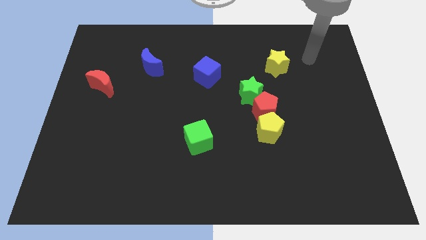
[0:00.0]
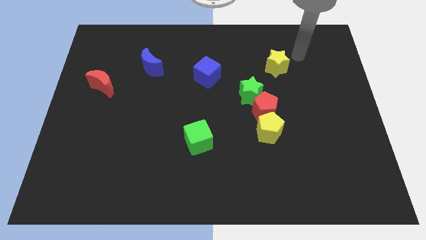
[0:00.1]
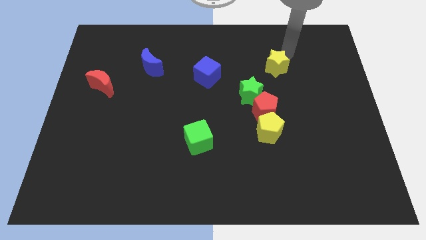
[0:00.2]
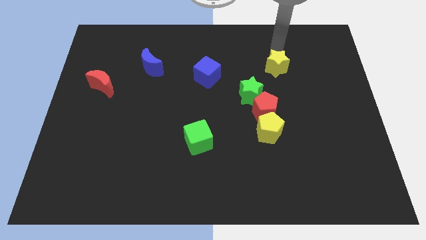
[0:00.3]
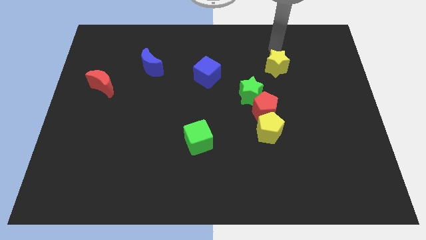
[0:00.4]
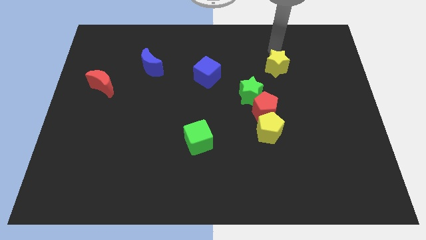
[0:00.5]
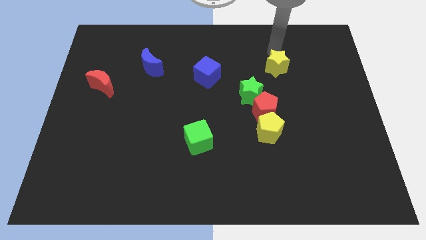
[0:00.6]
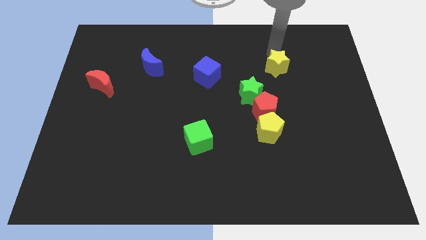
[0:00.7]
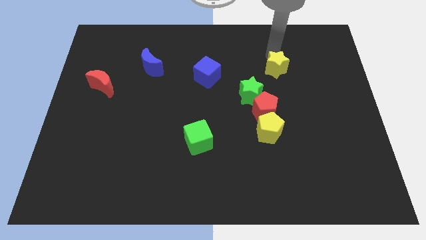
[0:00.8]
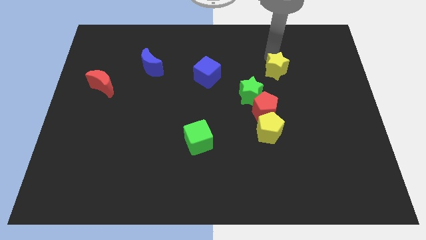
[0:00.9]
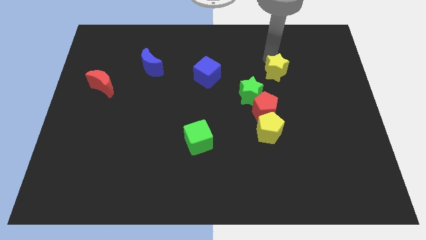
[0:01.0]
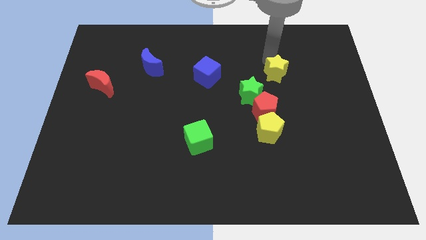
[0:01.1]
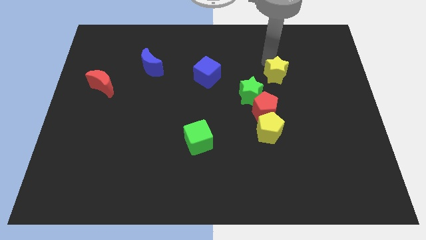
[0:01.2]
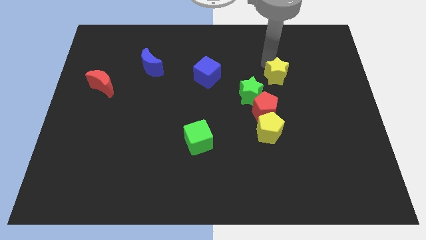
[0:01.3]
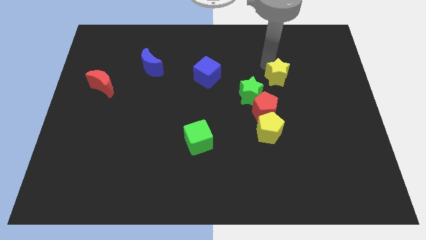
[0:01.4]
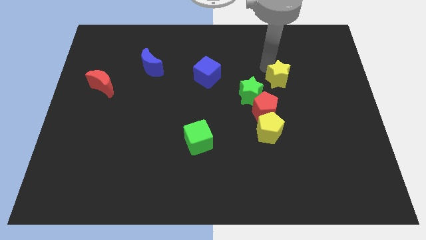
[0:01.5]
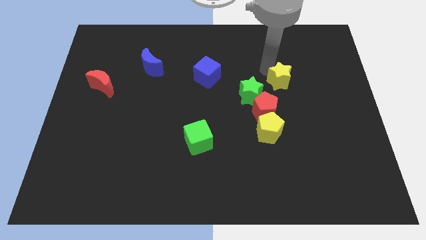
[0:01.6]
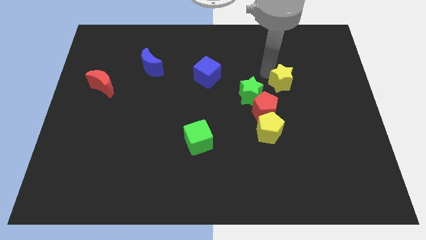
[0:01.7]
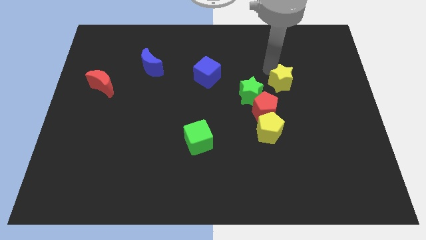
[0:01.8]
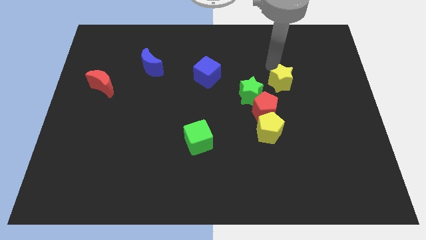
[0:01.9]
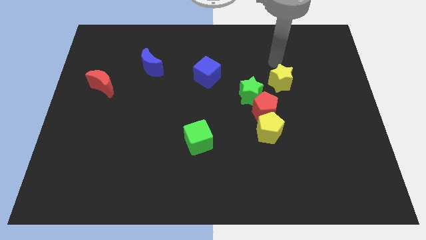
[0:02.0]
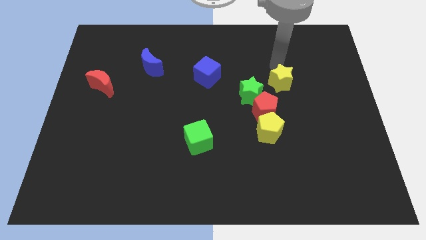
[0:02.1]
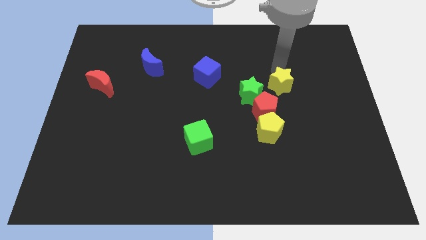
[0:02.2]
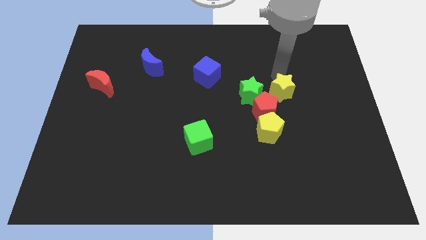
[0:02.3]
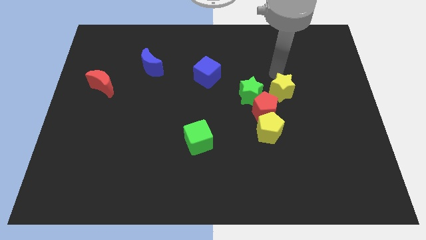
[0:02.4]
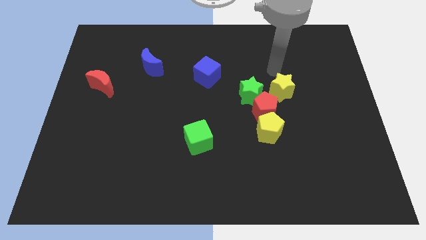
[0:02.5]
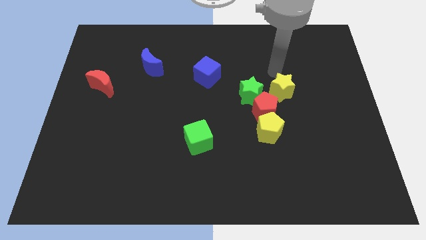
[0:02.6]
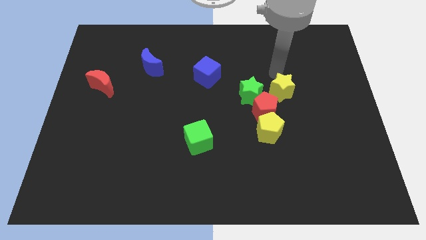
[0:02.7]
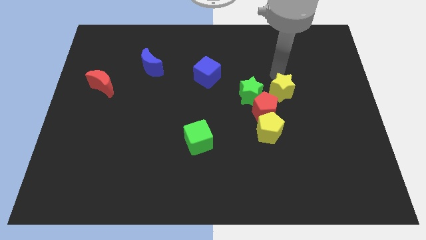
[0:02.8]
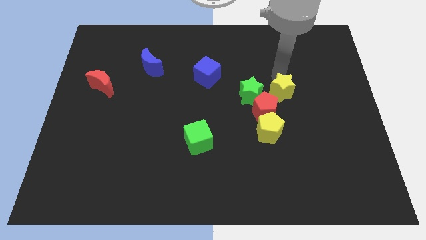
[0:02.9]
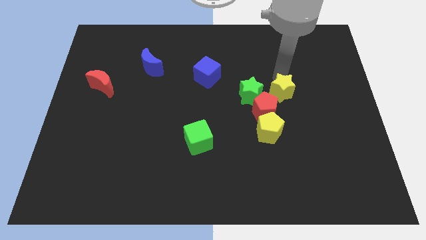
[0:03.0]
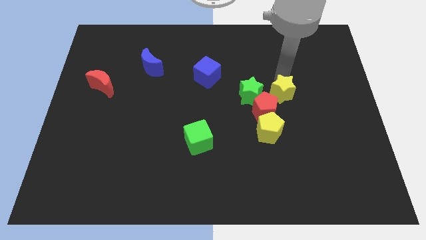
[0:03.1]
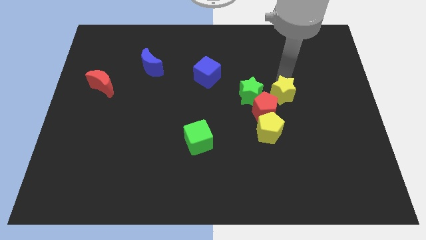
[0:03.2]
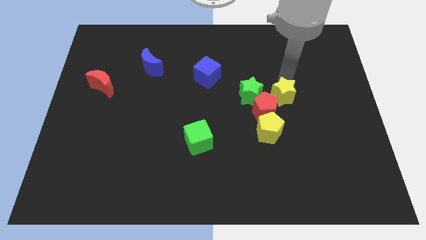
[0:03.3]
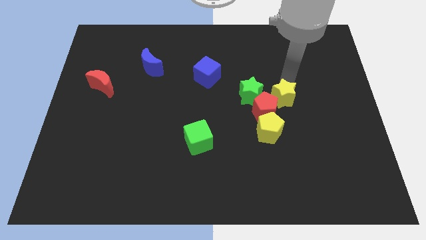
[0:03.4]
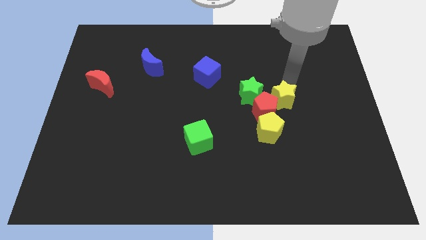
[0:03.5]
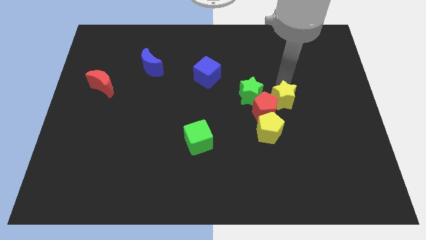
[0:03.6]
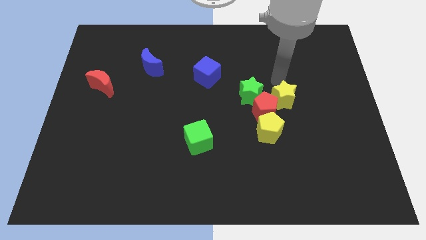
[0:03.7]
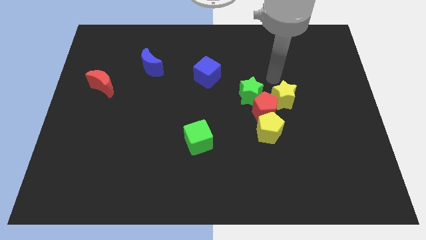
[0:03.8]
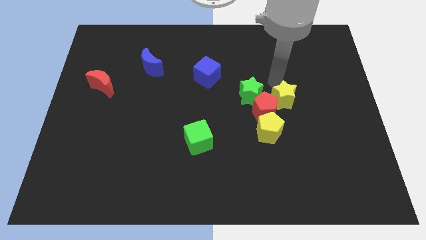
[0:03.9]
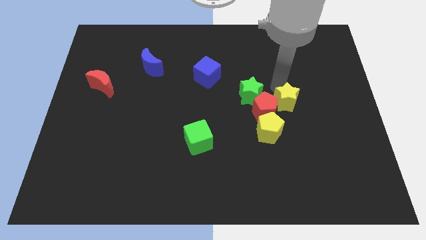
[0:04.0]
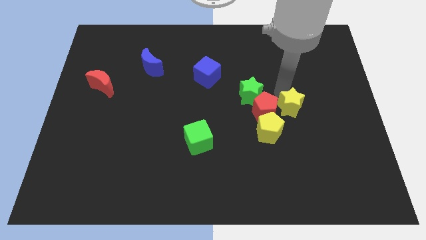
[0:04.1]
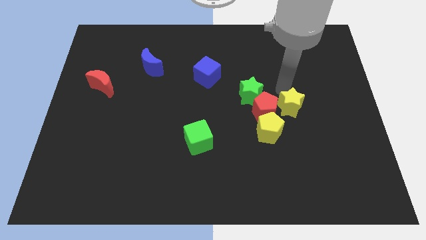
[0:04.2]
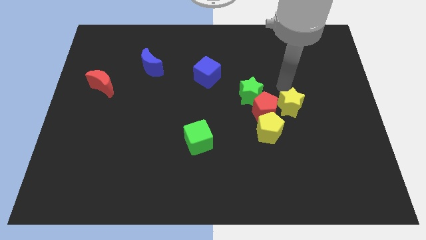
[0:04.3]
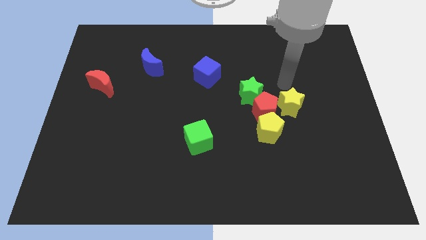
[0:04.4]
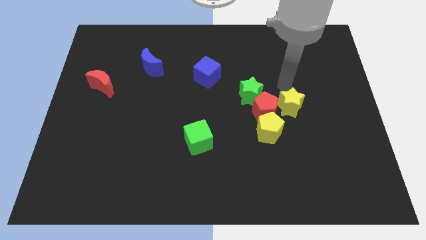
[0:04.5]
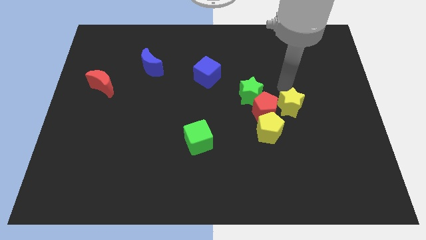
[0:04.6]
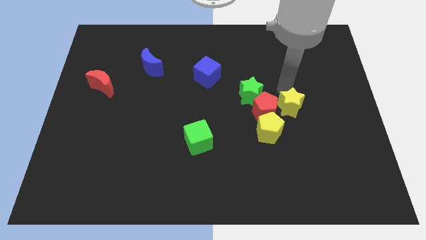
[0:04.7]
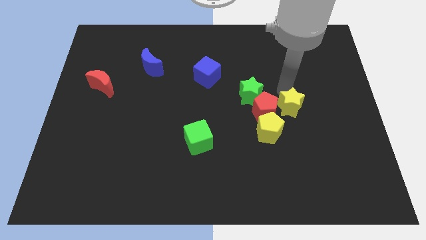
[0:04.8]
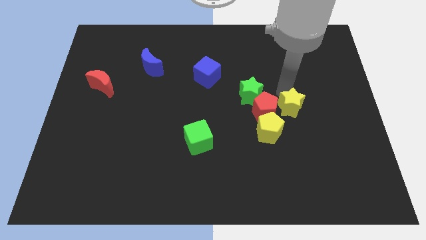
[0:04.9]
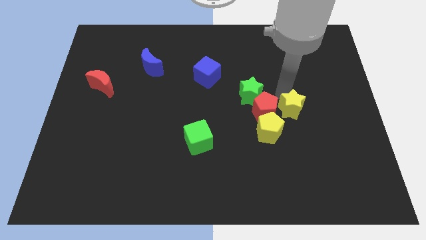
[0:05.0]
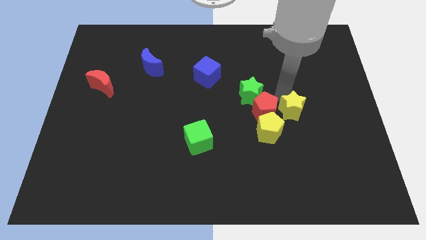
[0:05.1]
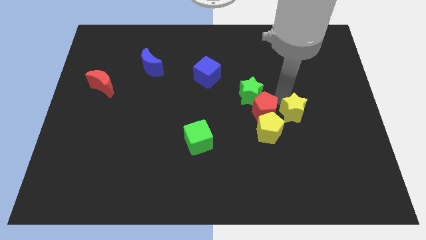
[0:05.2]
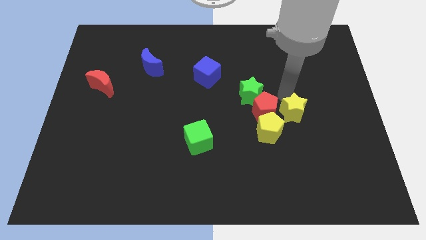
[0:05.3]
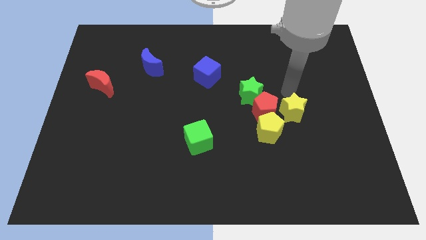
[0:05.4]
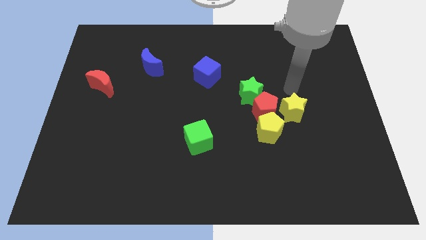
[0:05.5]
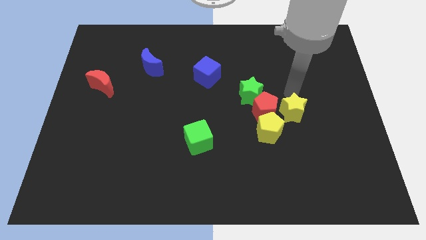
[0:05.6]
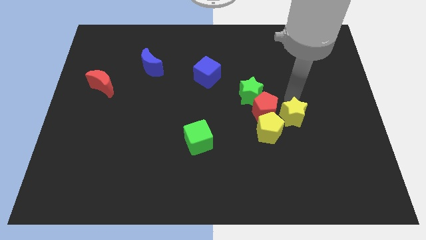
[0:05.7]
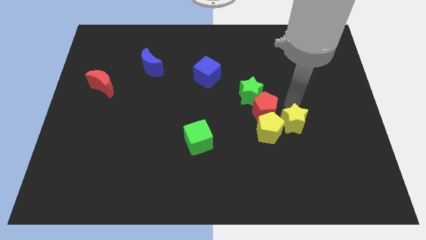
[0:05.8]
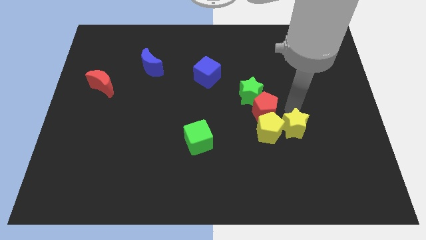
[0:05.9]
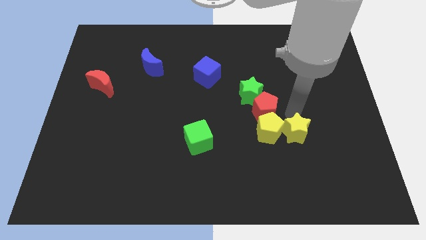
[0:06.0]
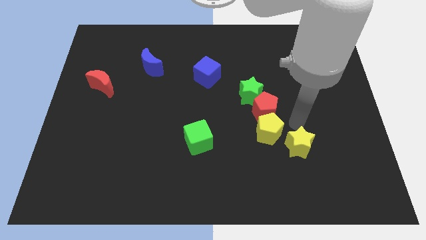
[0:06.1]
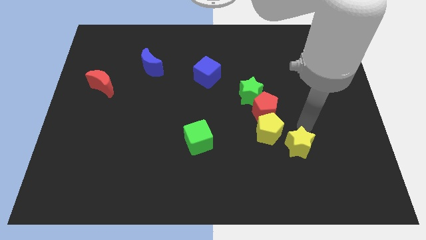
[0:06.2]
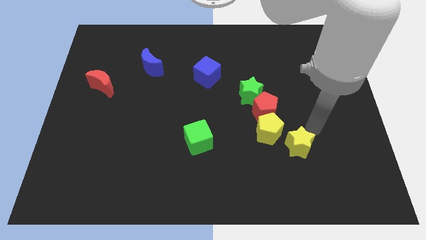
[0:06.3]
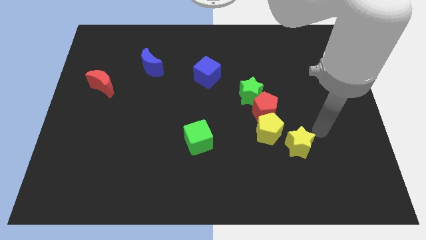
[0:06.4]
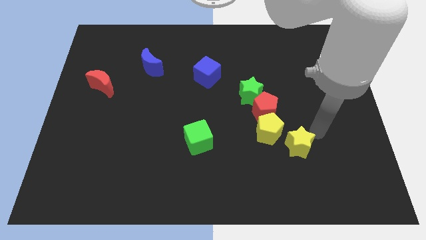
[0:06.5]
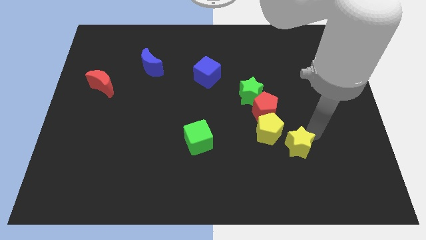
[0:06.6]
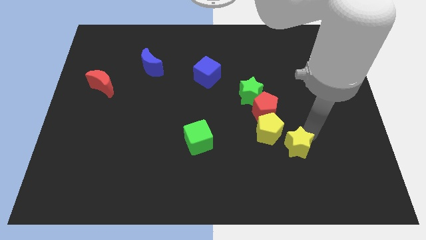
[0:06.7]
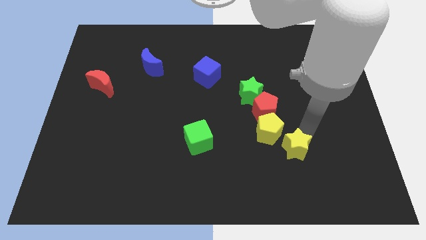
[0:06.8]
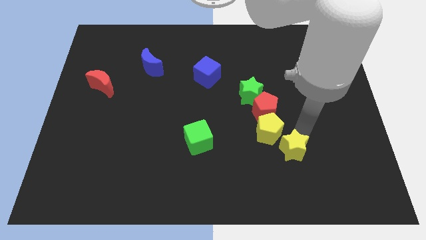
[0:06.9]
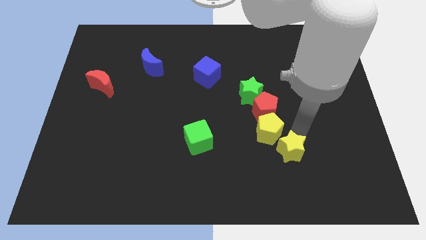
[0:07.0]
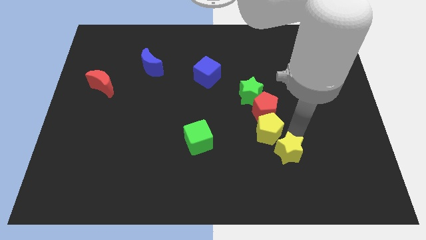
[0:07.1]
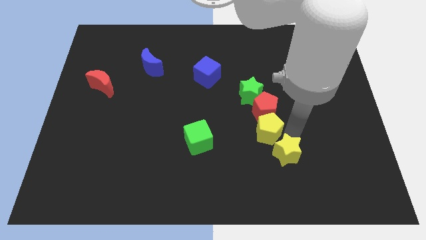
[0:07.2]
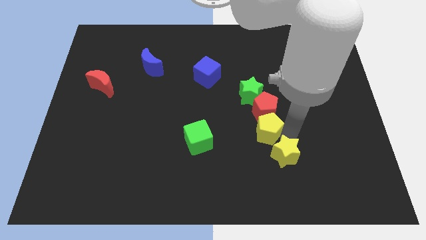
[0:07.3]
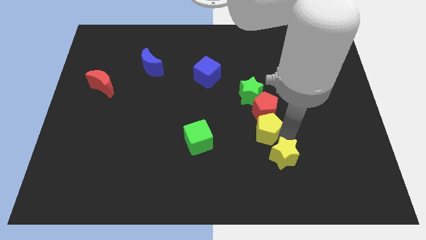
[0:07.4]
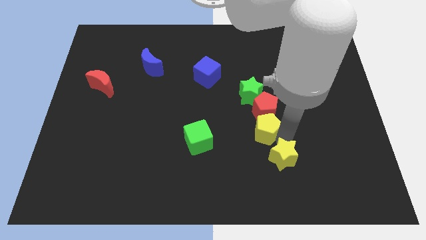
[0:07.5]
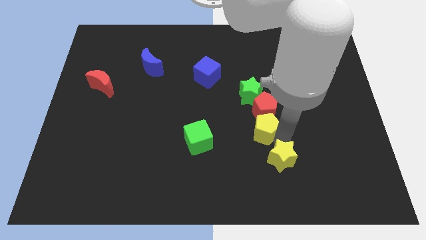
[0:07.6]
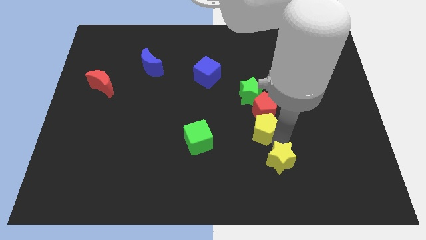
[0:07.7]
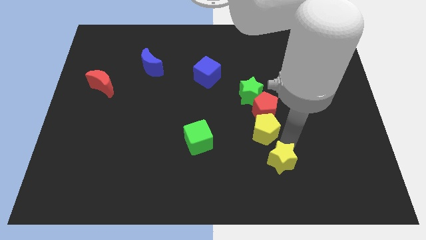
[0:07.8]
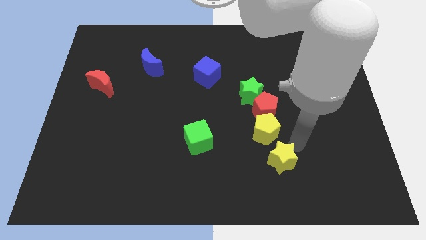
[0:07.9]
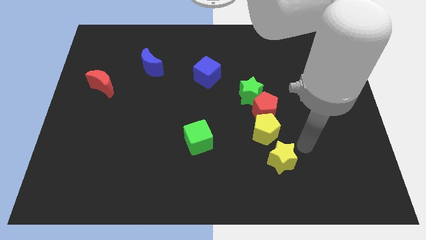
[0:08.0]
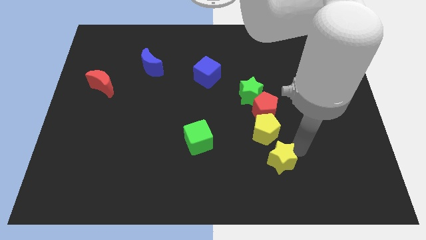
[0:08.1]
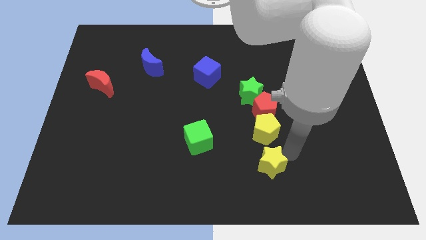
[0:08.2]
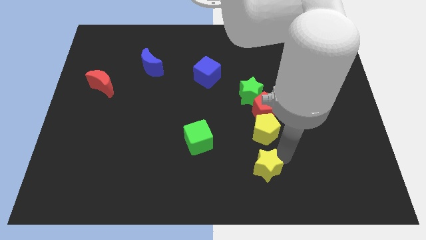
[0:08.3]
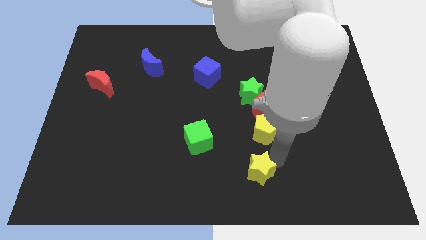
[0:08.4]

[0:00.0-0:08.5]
move the yellow star to the bottom
